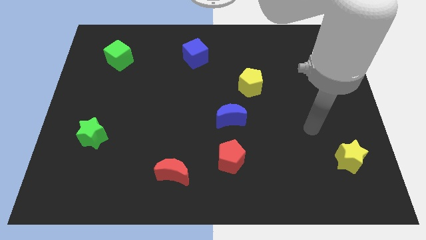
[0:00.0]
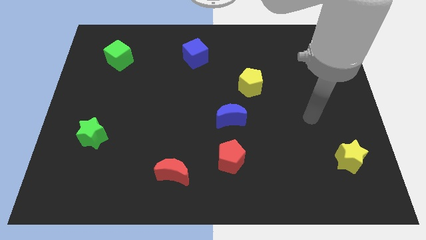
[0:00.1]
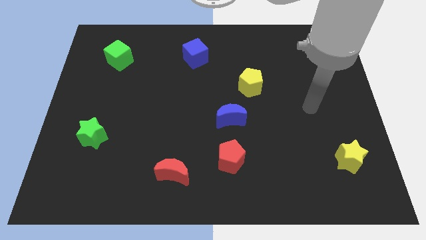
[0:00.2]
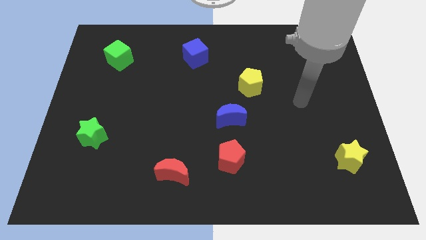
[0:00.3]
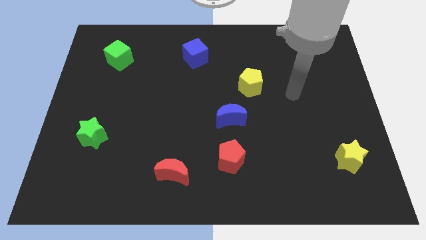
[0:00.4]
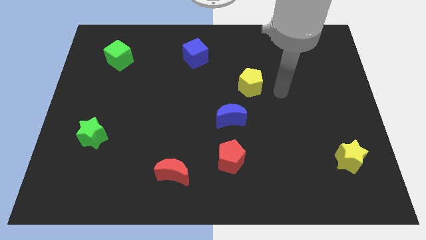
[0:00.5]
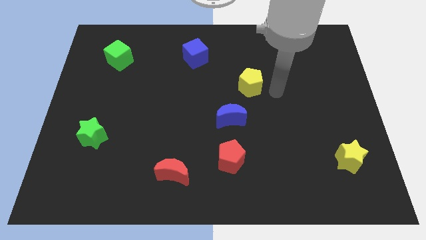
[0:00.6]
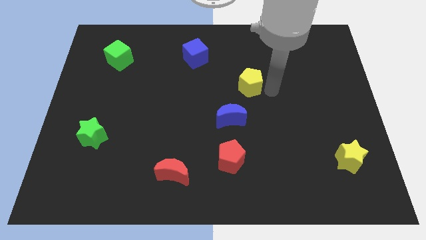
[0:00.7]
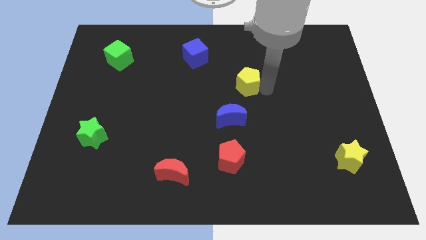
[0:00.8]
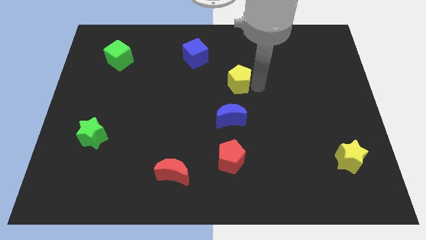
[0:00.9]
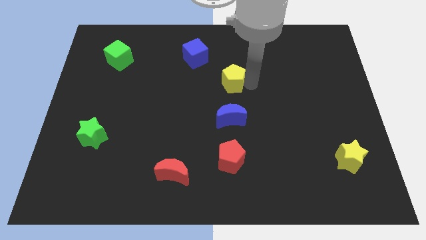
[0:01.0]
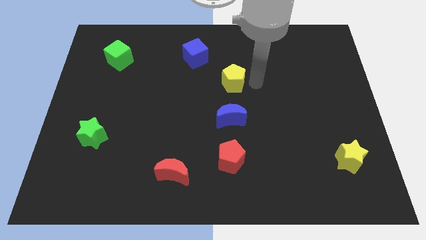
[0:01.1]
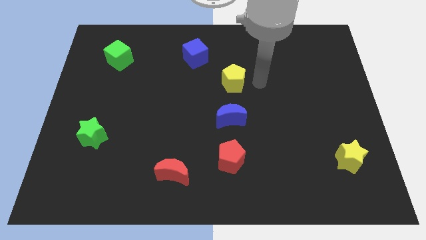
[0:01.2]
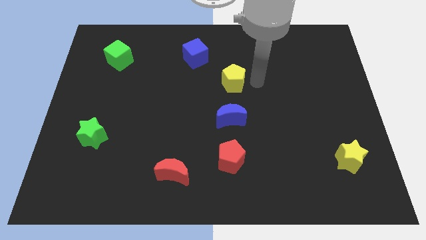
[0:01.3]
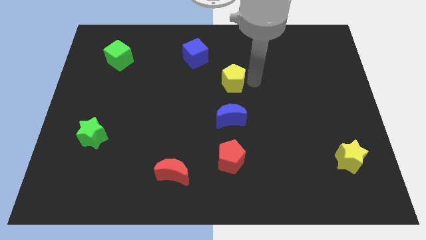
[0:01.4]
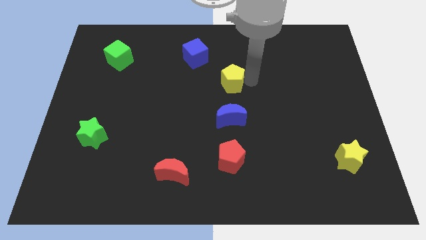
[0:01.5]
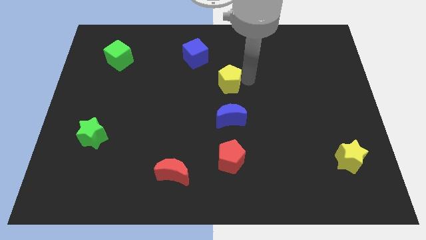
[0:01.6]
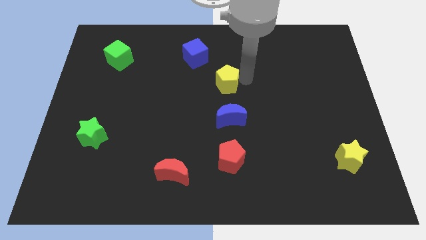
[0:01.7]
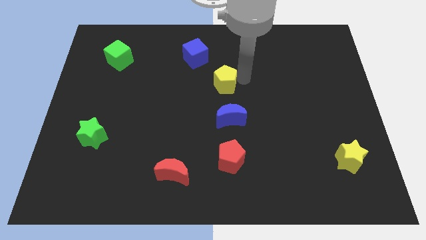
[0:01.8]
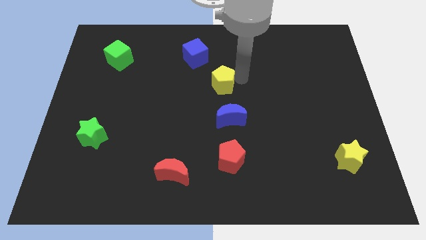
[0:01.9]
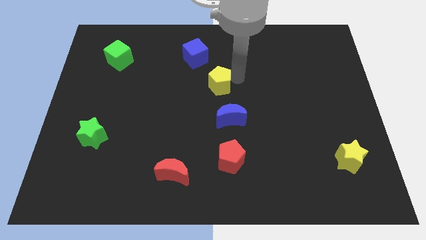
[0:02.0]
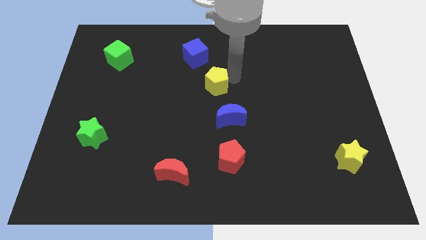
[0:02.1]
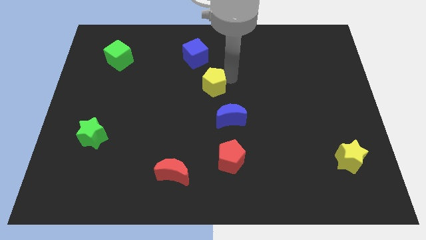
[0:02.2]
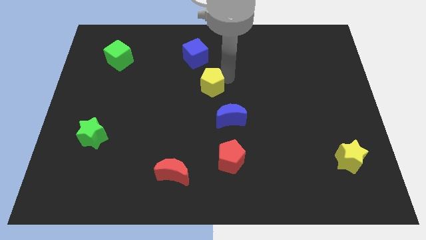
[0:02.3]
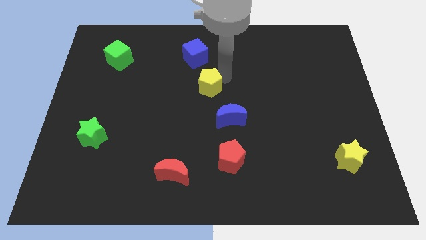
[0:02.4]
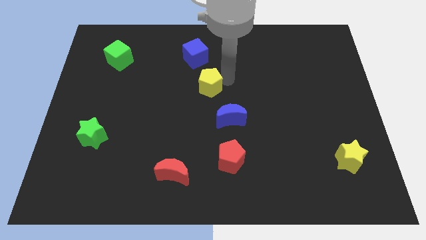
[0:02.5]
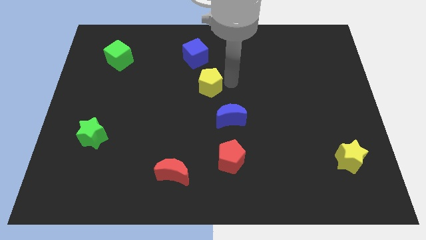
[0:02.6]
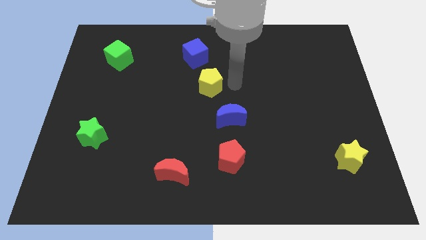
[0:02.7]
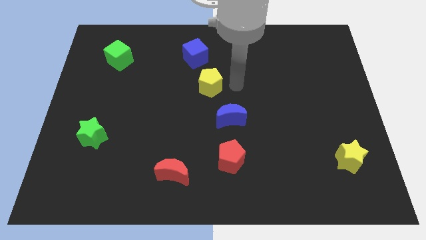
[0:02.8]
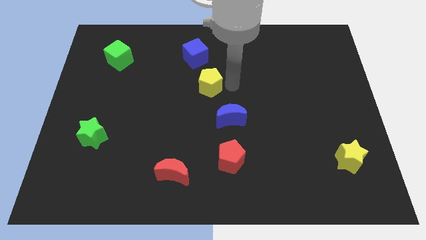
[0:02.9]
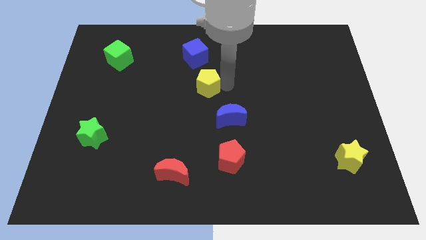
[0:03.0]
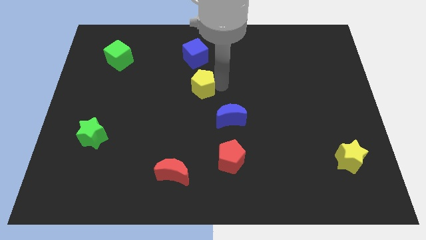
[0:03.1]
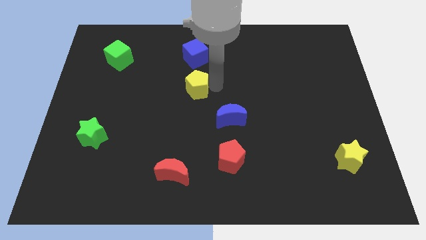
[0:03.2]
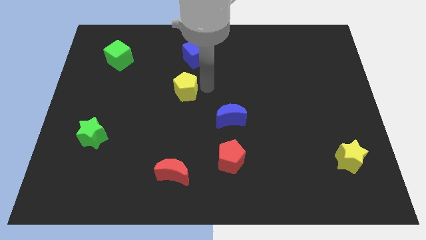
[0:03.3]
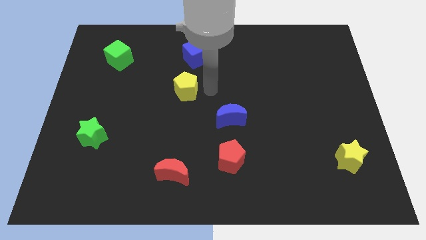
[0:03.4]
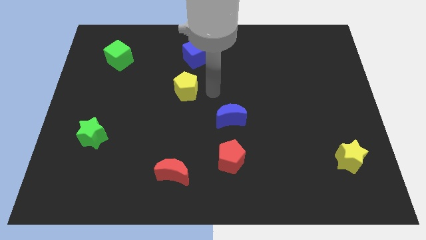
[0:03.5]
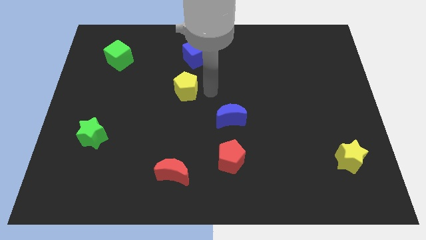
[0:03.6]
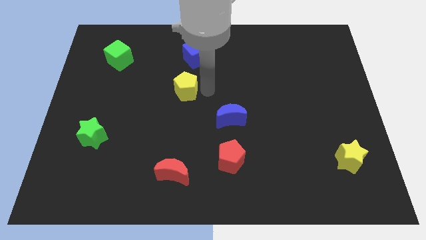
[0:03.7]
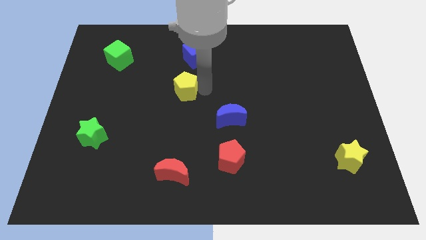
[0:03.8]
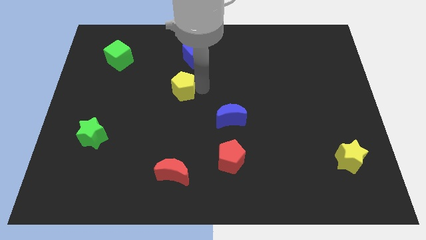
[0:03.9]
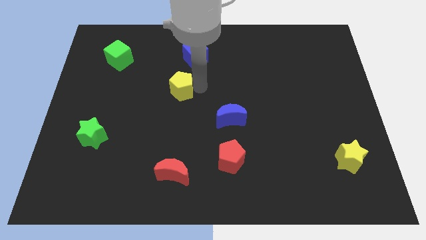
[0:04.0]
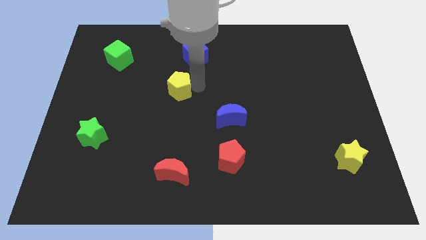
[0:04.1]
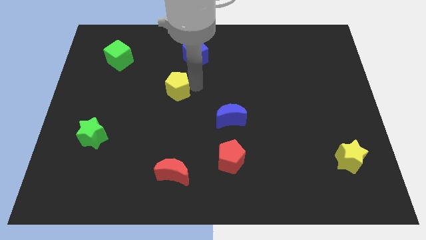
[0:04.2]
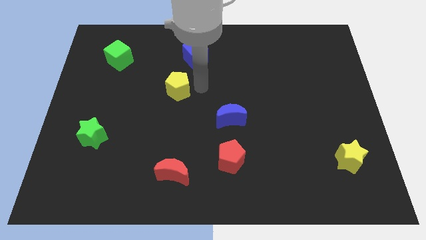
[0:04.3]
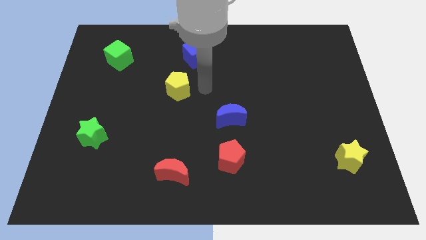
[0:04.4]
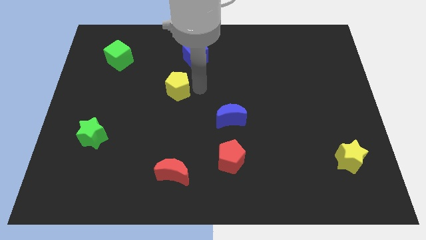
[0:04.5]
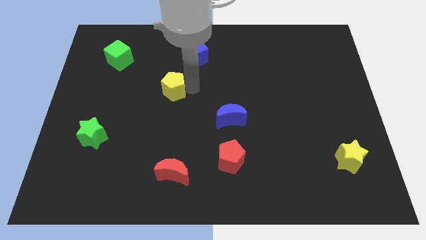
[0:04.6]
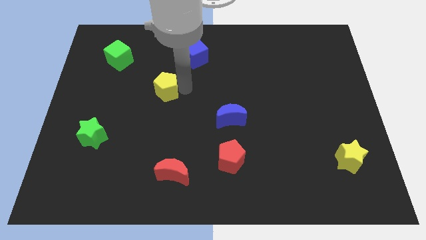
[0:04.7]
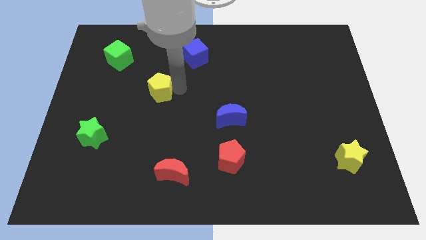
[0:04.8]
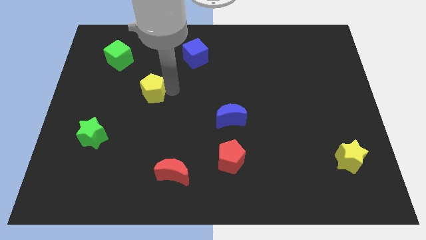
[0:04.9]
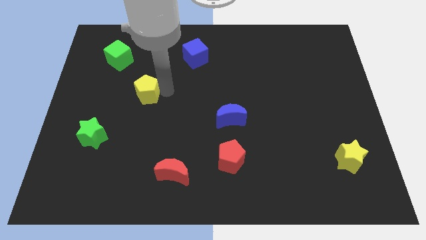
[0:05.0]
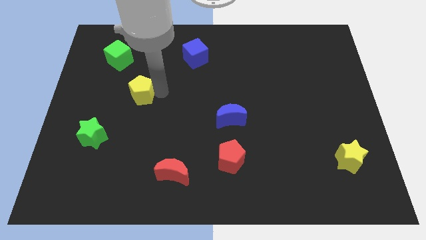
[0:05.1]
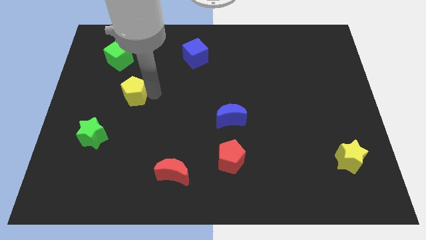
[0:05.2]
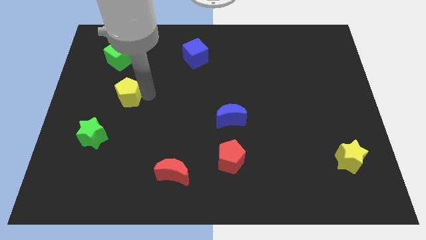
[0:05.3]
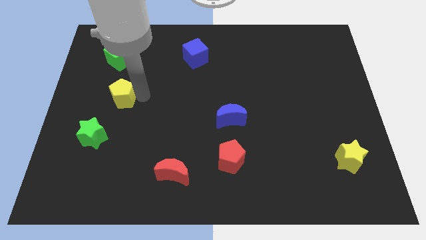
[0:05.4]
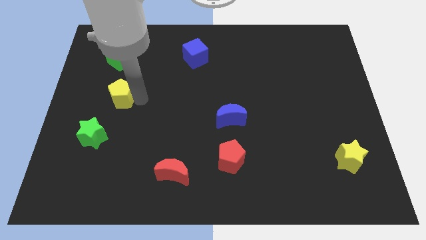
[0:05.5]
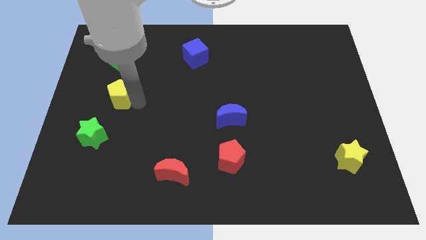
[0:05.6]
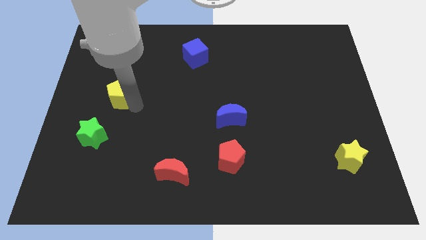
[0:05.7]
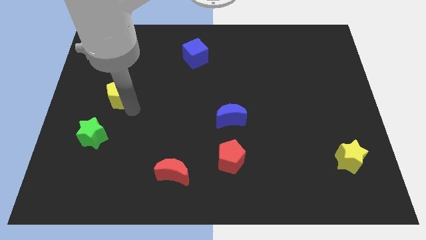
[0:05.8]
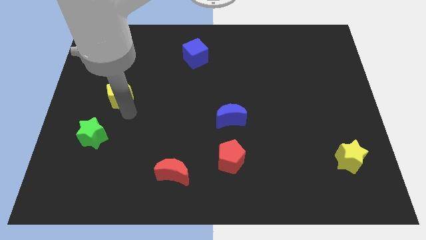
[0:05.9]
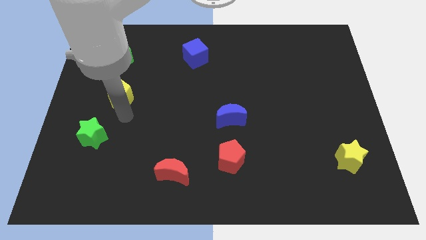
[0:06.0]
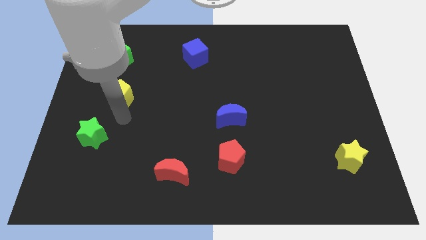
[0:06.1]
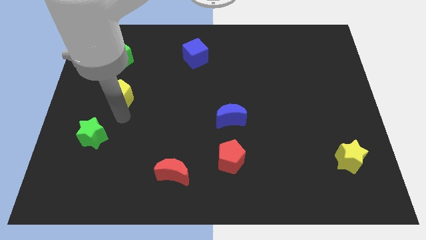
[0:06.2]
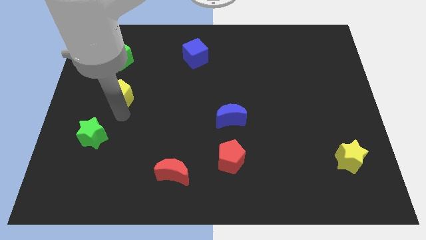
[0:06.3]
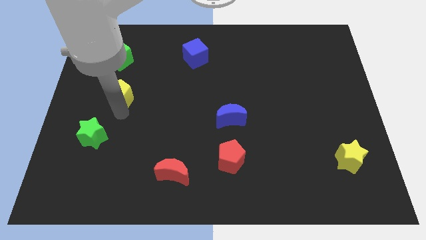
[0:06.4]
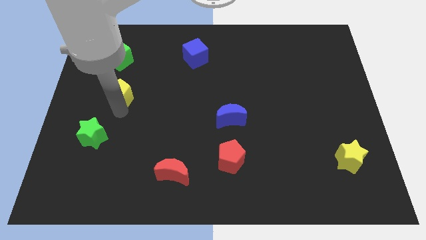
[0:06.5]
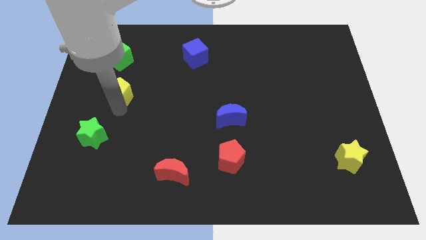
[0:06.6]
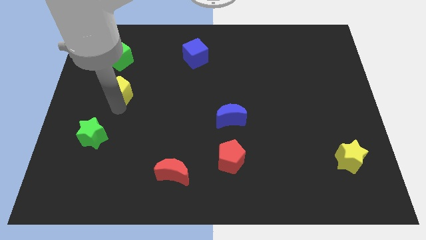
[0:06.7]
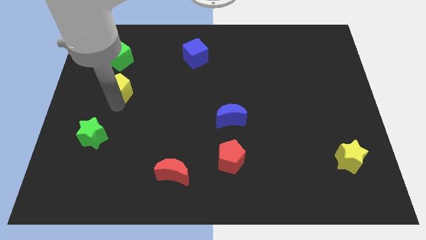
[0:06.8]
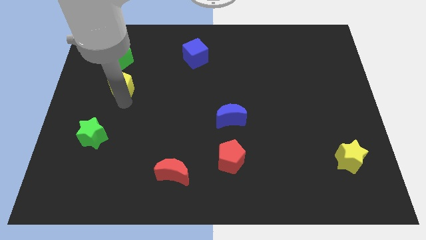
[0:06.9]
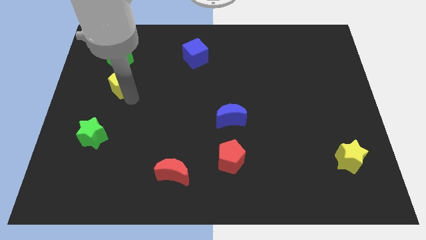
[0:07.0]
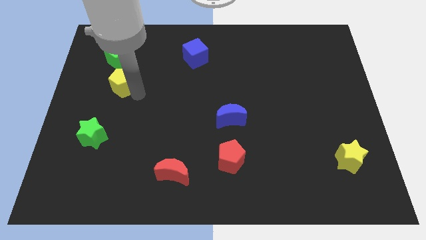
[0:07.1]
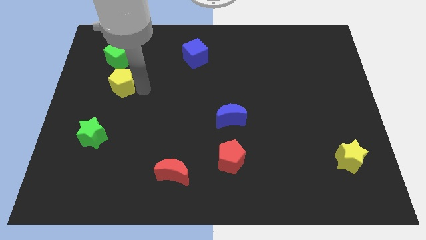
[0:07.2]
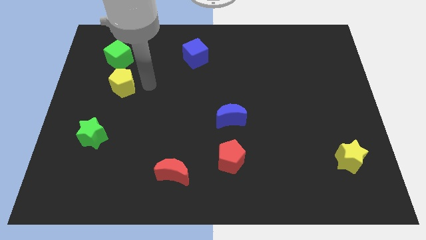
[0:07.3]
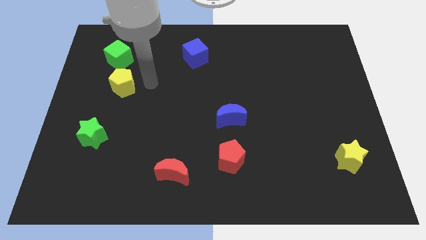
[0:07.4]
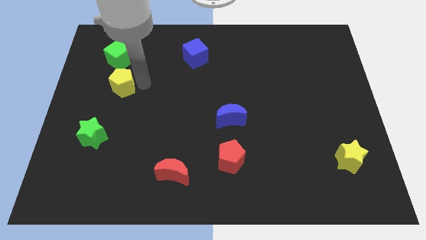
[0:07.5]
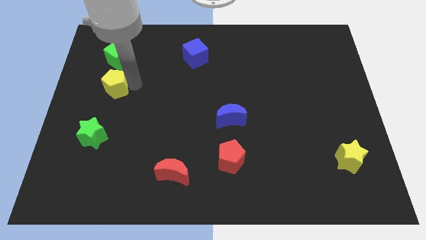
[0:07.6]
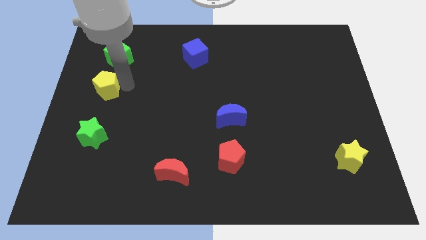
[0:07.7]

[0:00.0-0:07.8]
push the yellow pentagon to the left side
